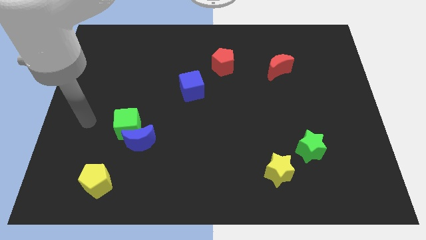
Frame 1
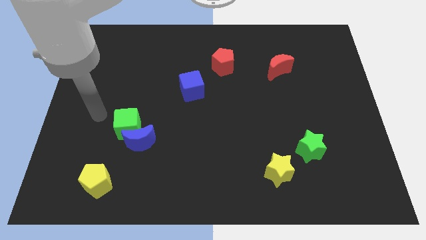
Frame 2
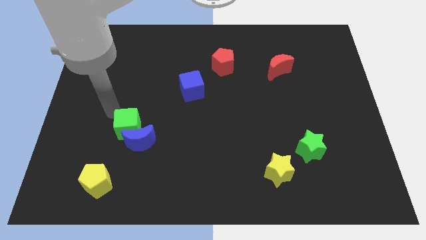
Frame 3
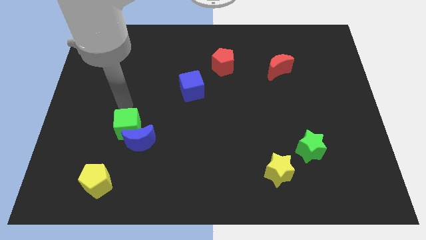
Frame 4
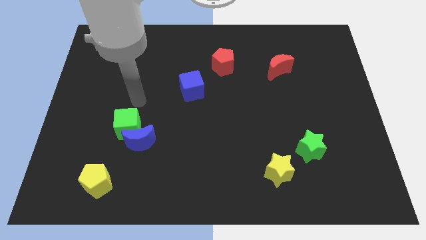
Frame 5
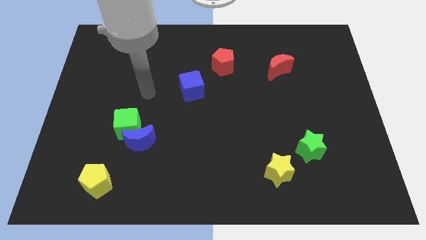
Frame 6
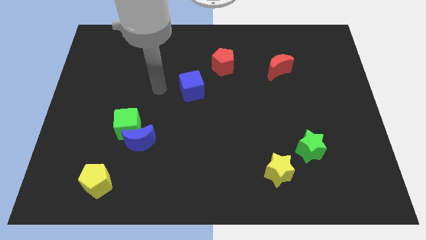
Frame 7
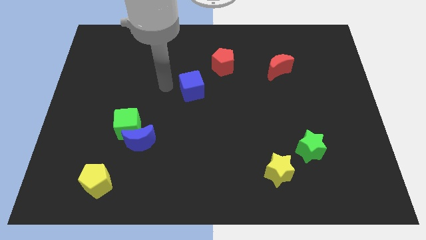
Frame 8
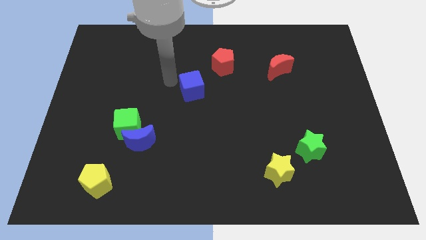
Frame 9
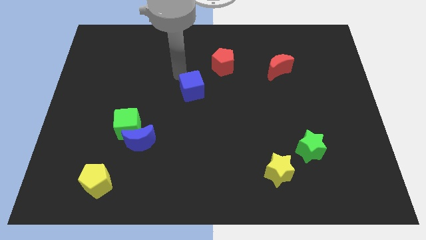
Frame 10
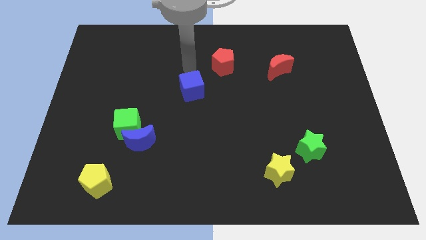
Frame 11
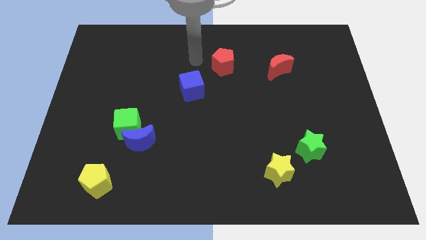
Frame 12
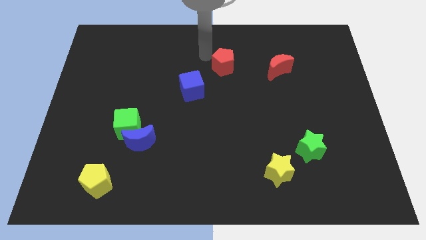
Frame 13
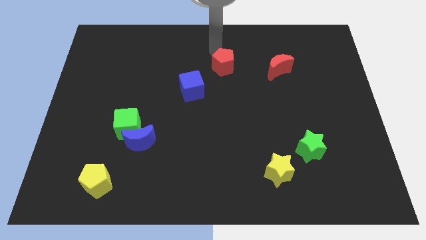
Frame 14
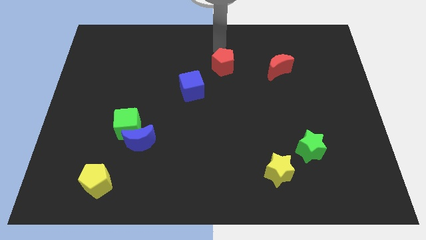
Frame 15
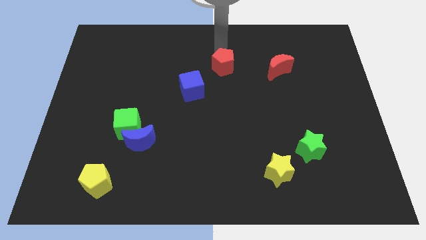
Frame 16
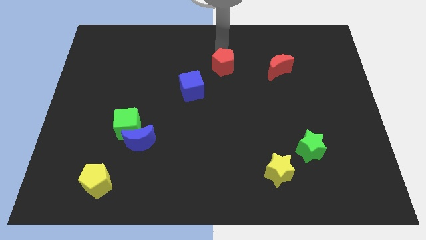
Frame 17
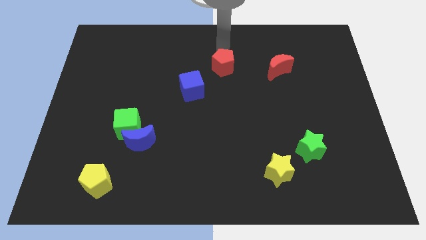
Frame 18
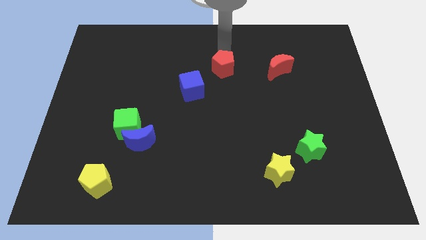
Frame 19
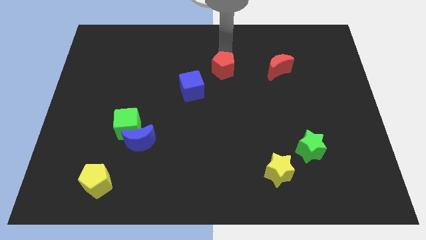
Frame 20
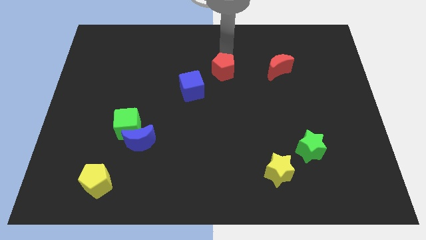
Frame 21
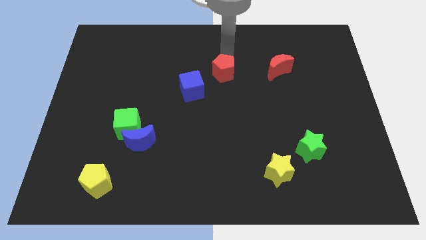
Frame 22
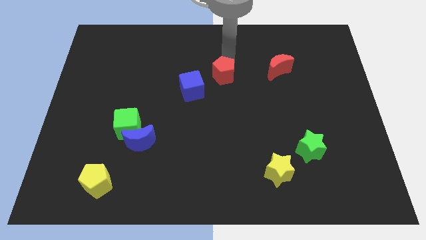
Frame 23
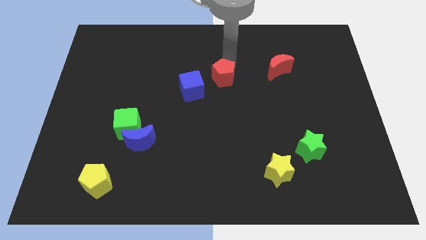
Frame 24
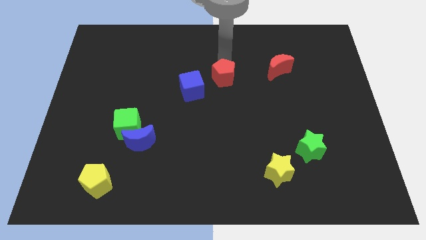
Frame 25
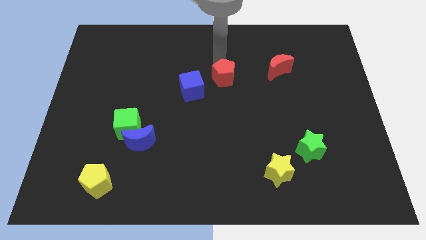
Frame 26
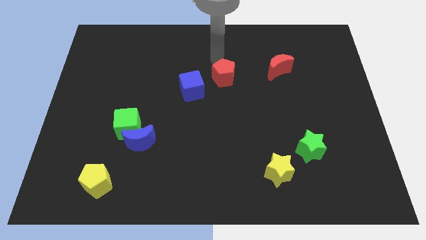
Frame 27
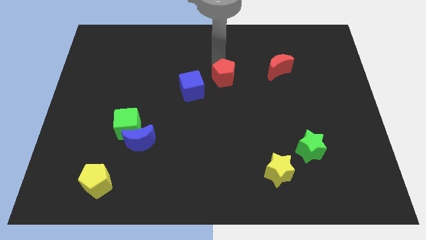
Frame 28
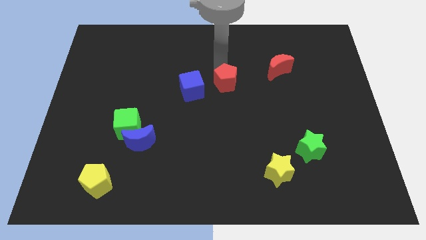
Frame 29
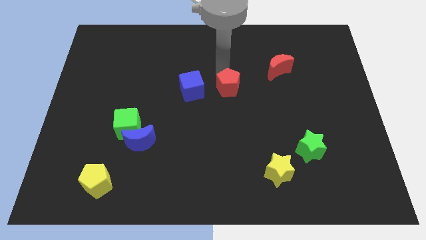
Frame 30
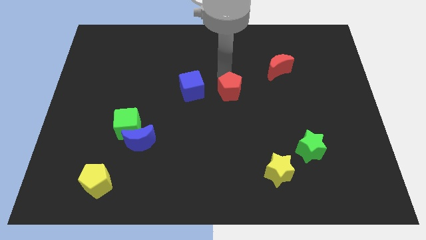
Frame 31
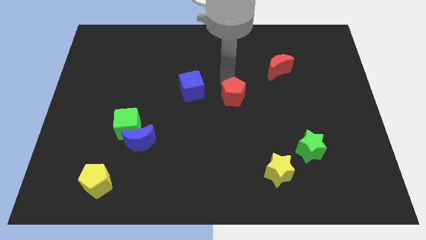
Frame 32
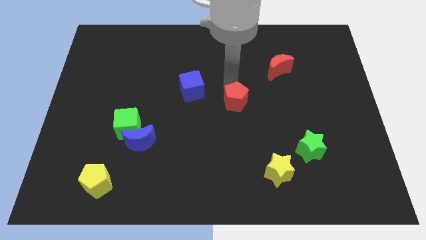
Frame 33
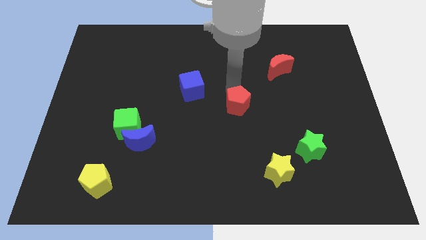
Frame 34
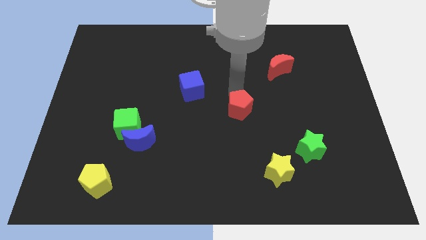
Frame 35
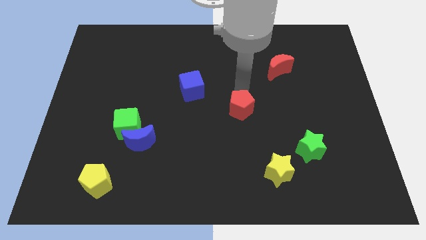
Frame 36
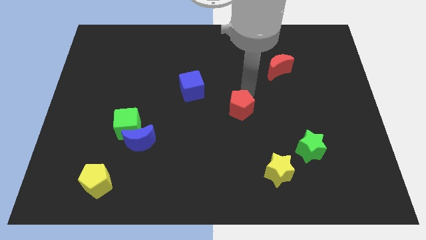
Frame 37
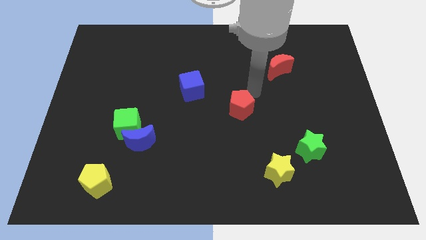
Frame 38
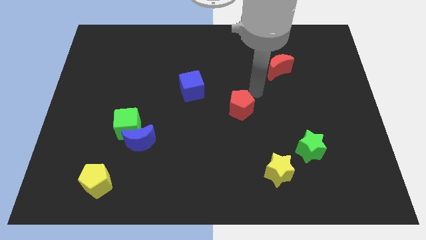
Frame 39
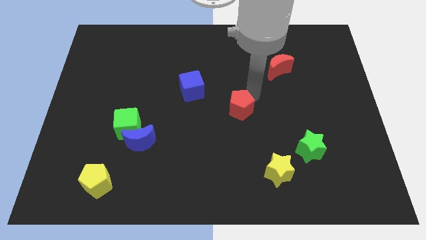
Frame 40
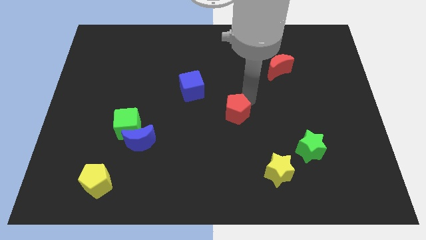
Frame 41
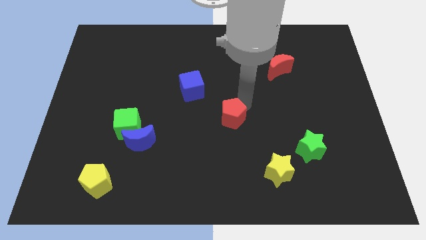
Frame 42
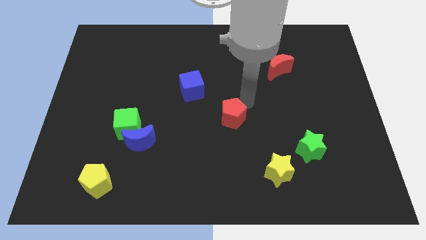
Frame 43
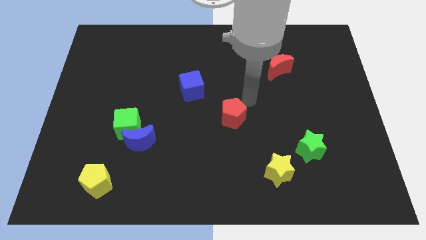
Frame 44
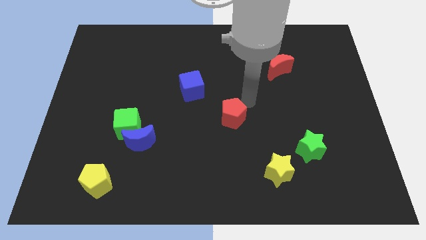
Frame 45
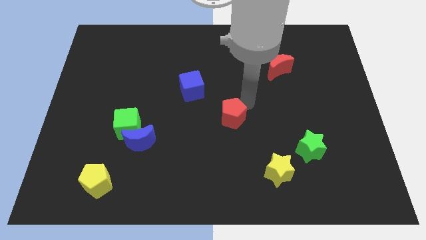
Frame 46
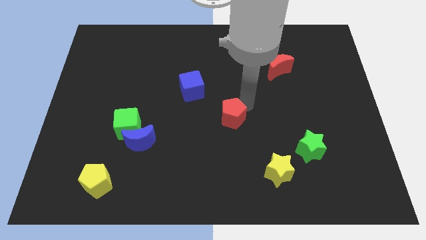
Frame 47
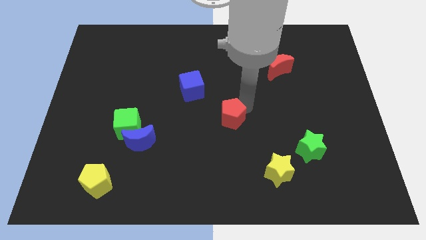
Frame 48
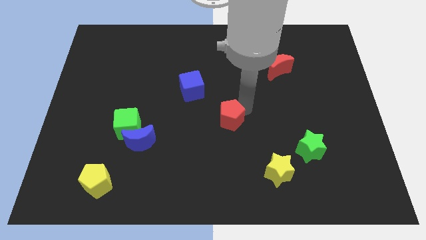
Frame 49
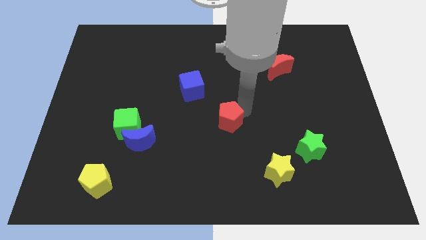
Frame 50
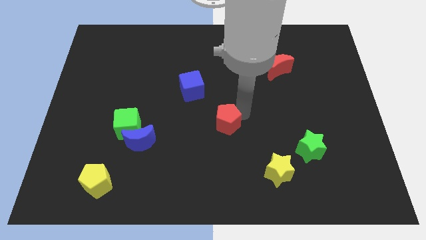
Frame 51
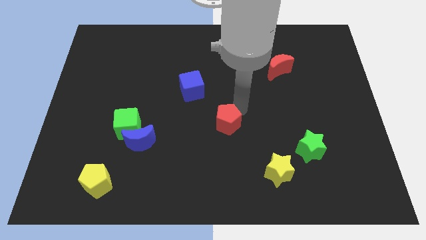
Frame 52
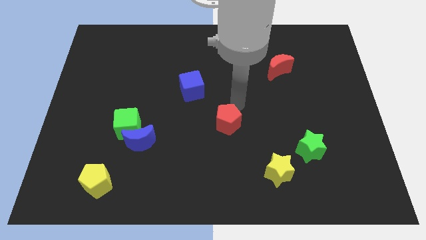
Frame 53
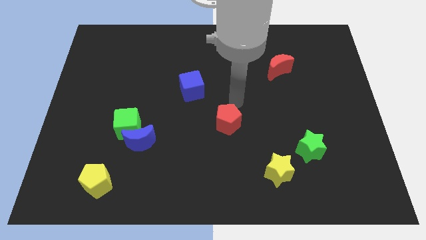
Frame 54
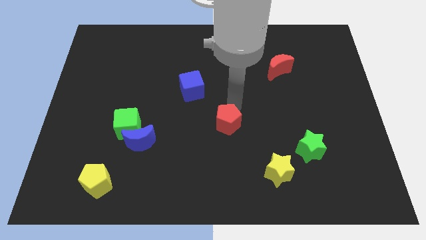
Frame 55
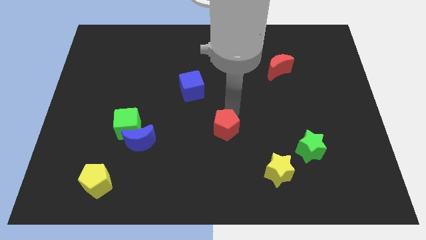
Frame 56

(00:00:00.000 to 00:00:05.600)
move the red pentagon down

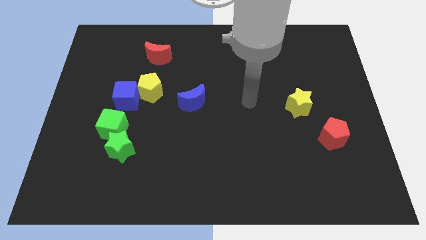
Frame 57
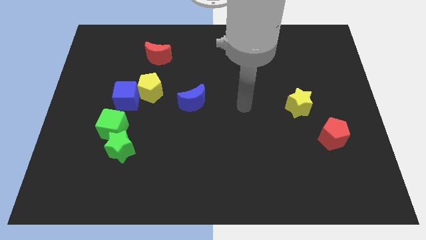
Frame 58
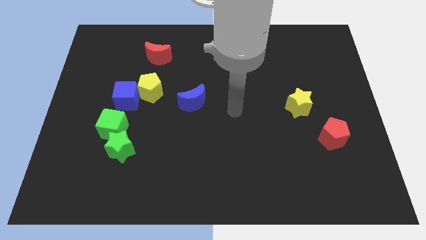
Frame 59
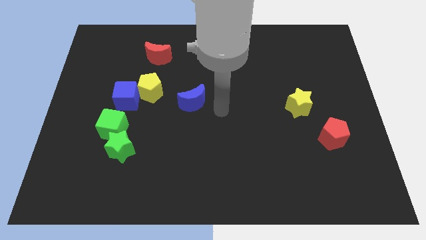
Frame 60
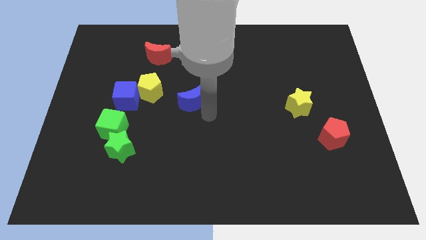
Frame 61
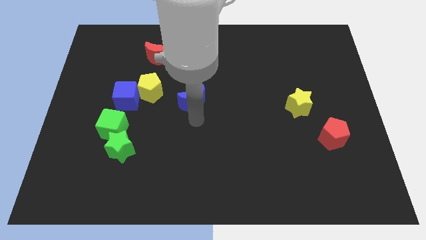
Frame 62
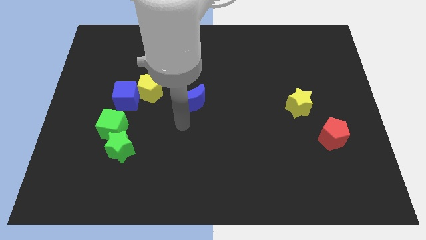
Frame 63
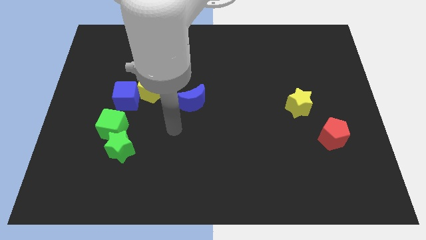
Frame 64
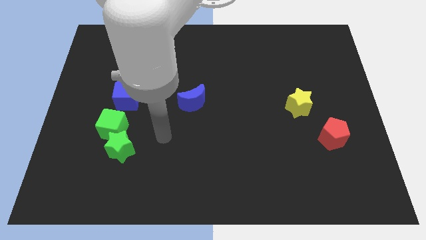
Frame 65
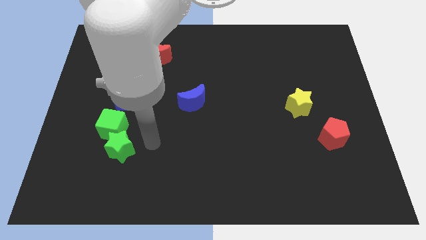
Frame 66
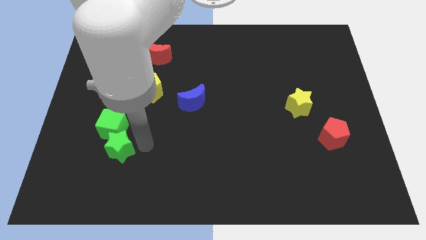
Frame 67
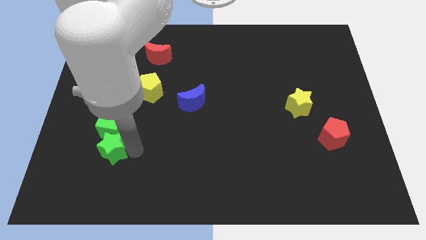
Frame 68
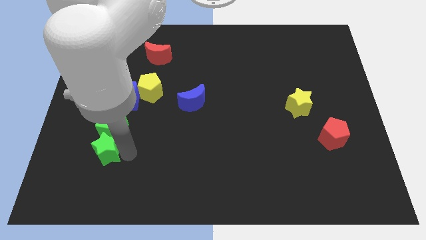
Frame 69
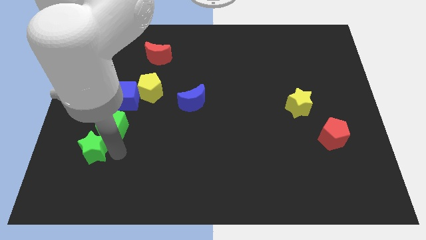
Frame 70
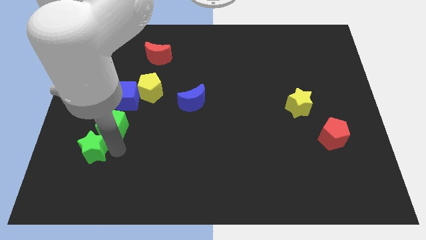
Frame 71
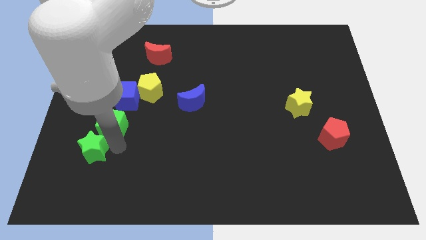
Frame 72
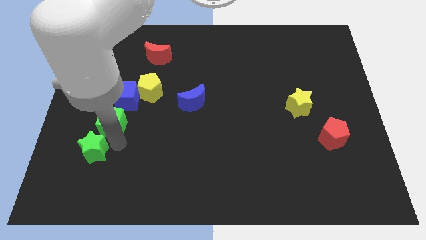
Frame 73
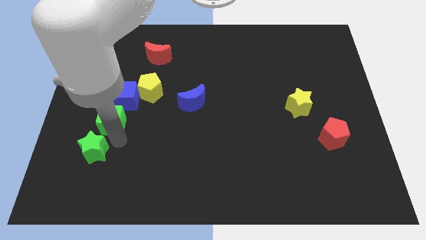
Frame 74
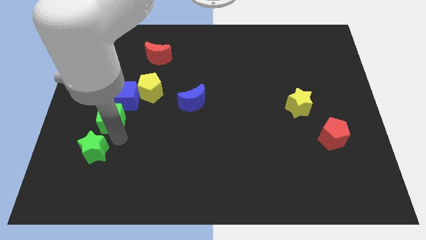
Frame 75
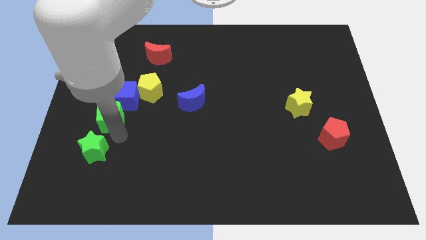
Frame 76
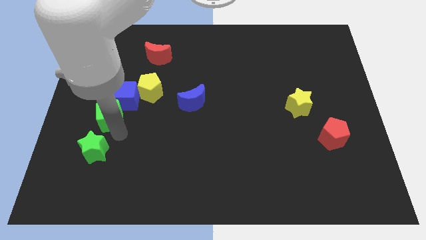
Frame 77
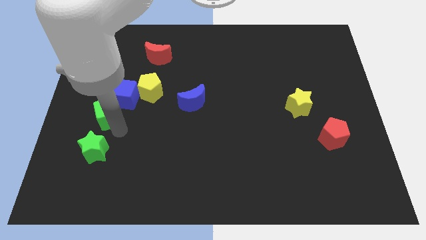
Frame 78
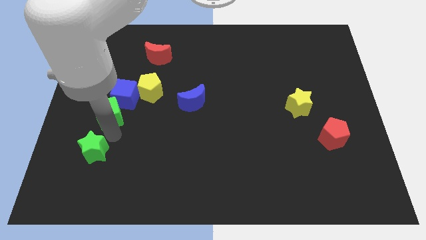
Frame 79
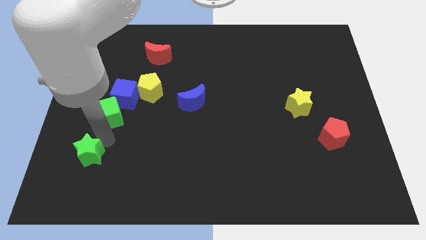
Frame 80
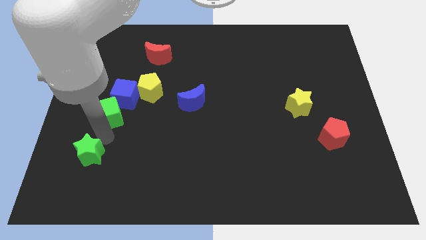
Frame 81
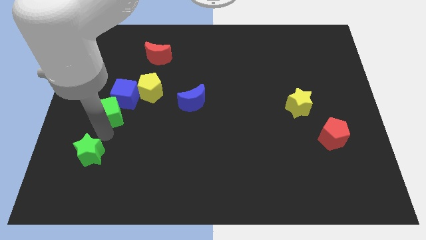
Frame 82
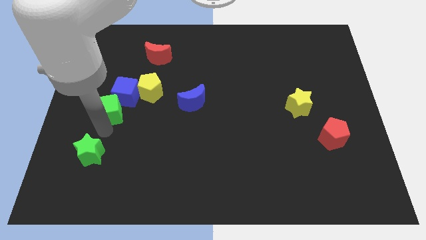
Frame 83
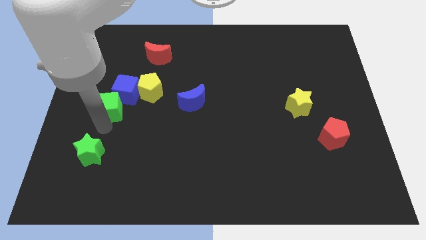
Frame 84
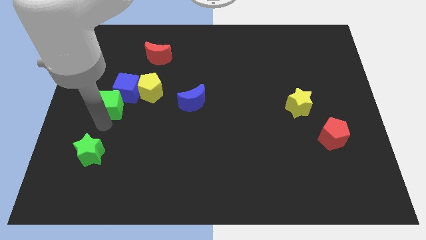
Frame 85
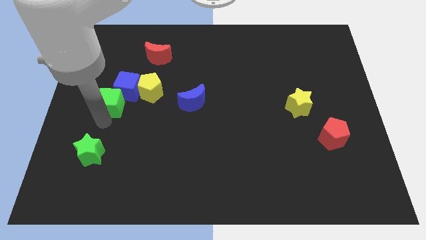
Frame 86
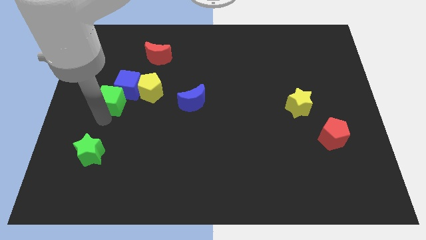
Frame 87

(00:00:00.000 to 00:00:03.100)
move the green cube up a little
